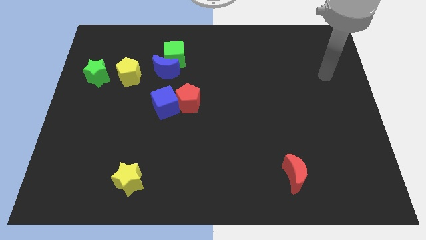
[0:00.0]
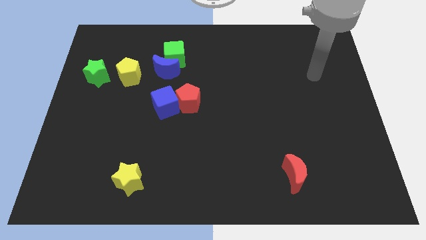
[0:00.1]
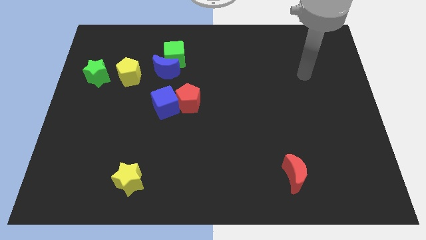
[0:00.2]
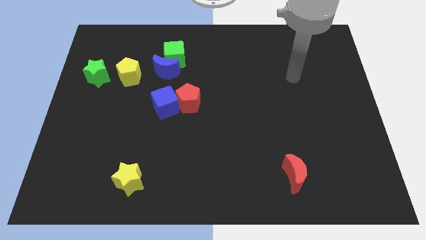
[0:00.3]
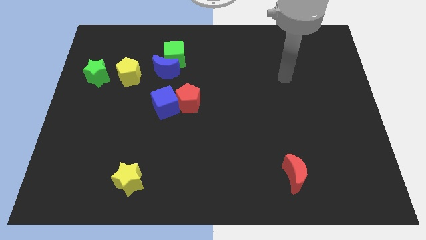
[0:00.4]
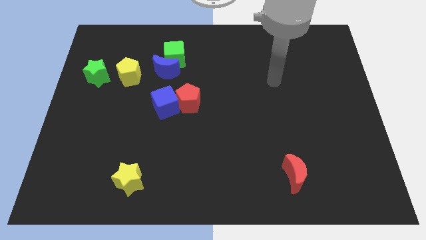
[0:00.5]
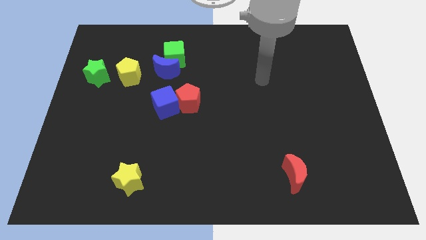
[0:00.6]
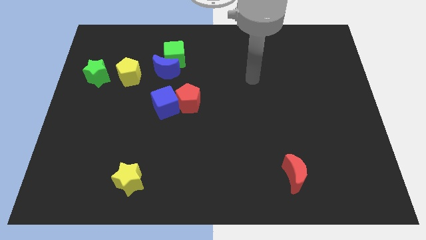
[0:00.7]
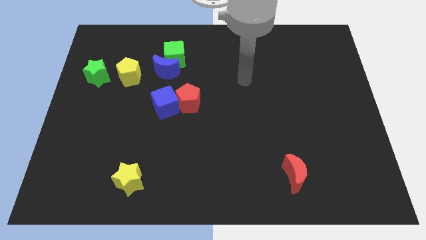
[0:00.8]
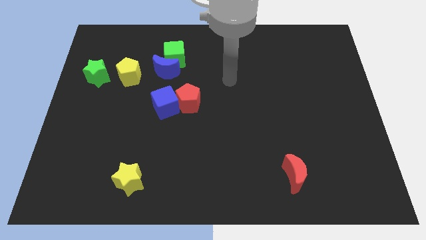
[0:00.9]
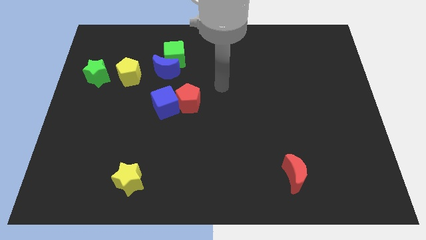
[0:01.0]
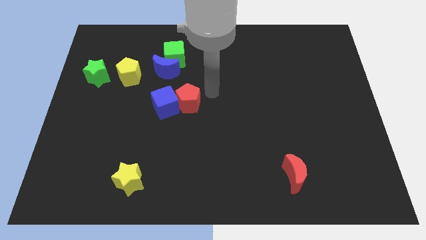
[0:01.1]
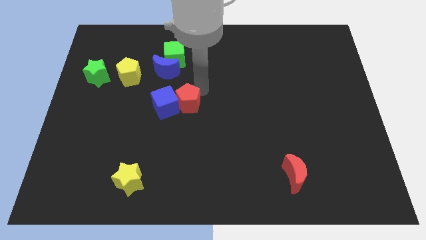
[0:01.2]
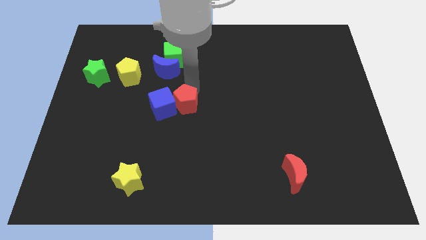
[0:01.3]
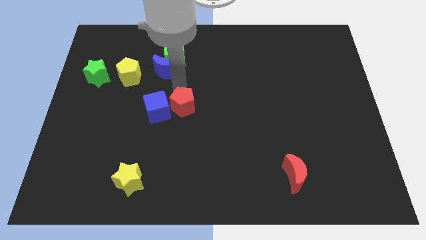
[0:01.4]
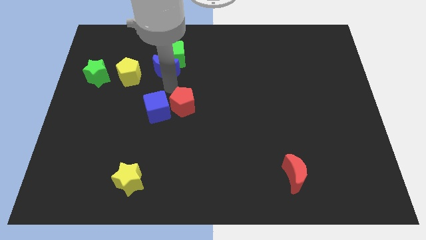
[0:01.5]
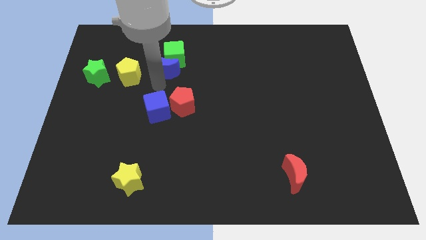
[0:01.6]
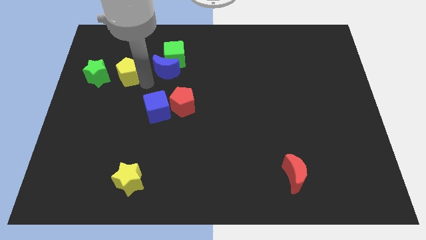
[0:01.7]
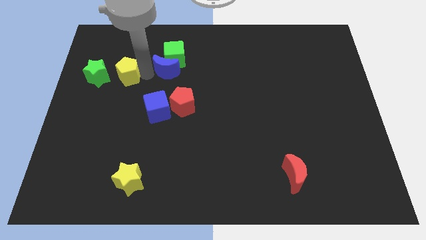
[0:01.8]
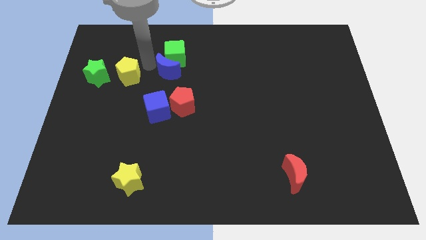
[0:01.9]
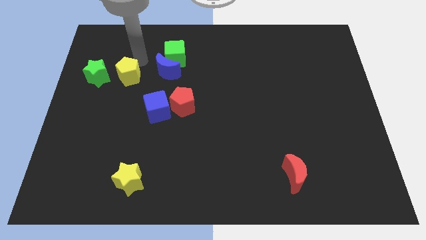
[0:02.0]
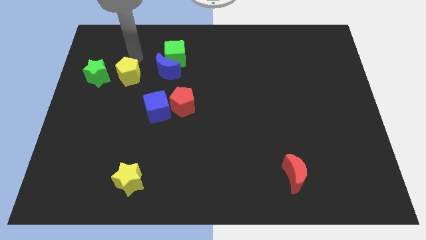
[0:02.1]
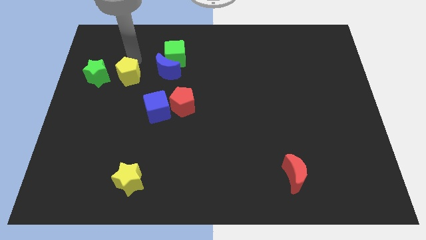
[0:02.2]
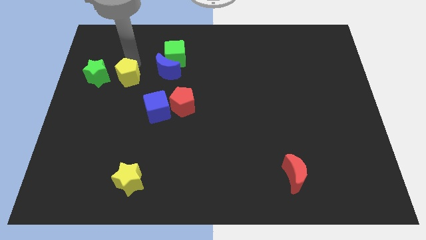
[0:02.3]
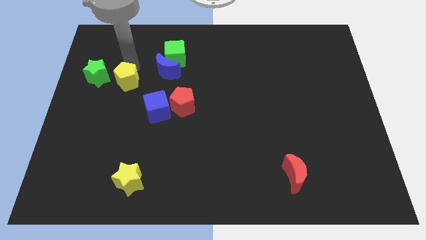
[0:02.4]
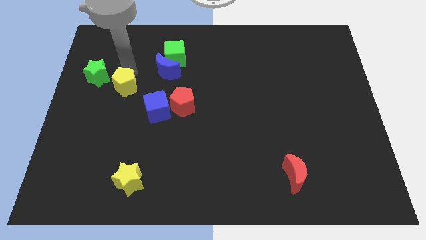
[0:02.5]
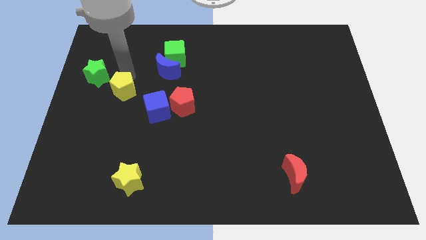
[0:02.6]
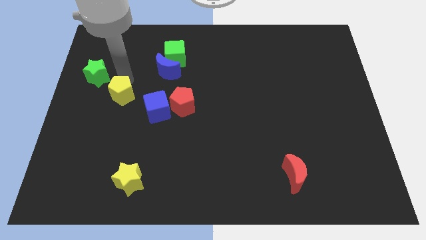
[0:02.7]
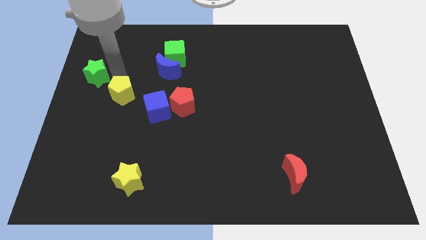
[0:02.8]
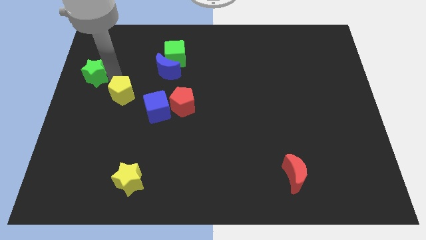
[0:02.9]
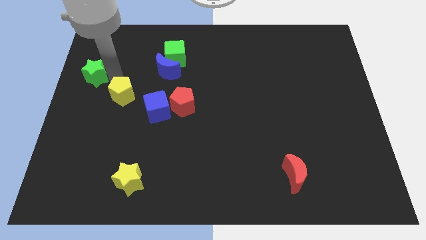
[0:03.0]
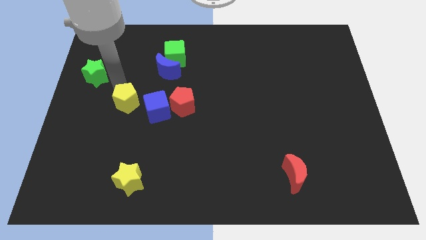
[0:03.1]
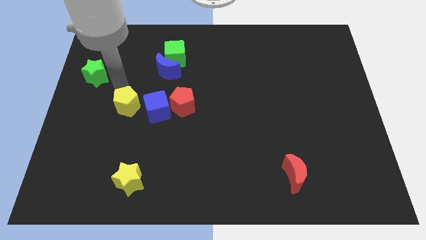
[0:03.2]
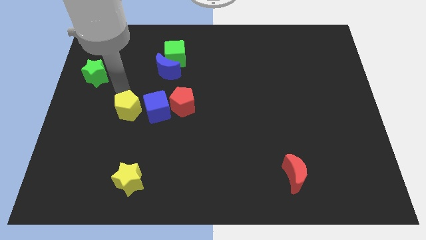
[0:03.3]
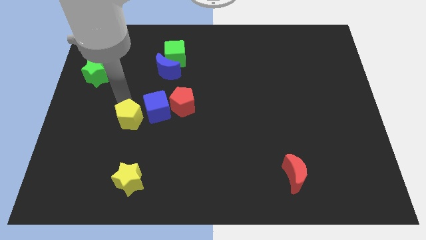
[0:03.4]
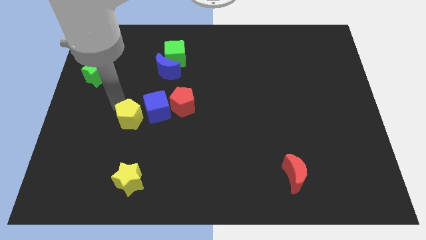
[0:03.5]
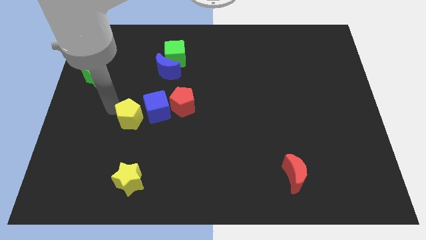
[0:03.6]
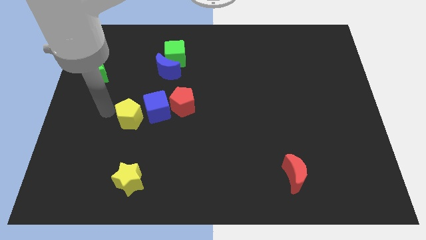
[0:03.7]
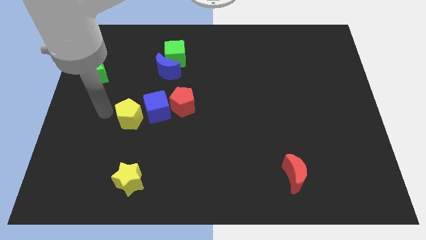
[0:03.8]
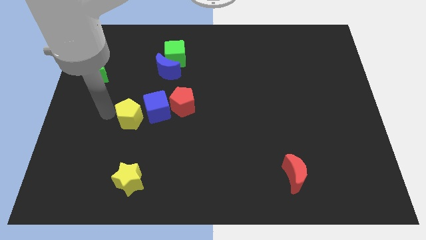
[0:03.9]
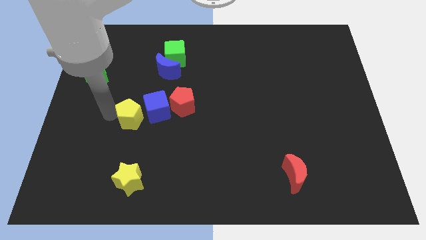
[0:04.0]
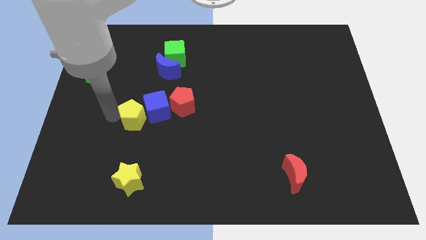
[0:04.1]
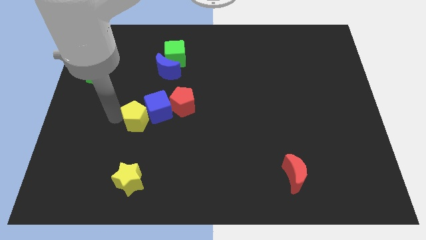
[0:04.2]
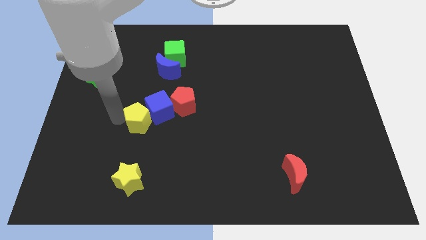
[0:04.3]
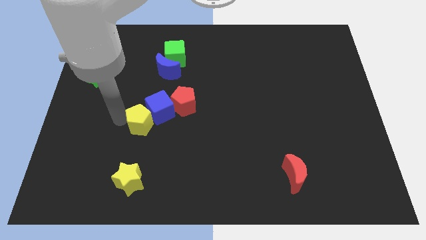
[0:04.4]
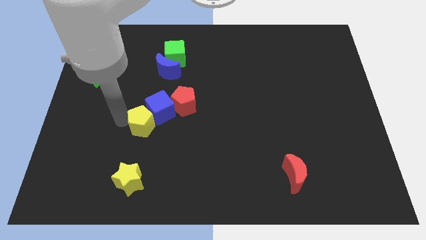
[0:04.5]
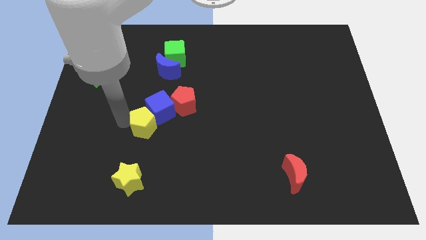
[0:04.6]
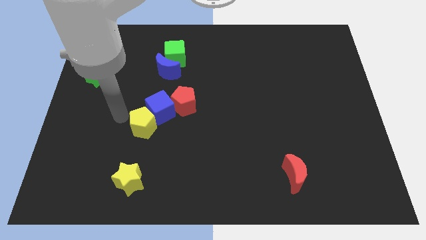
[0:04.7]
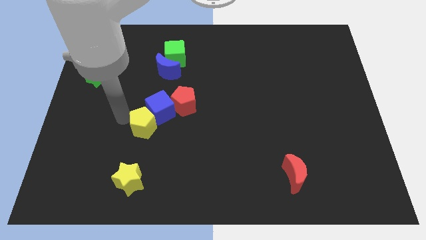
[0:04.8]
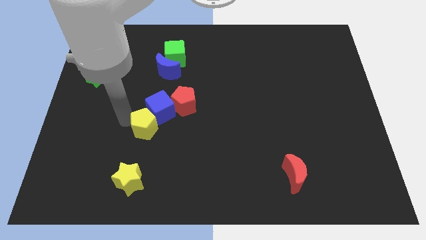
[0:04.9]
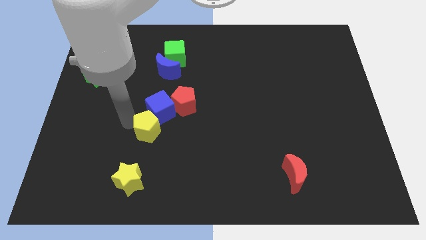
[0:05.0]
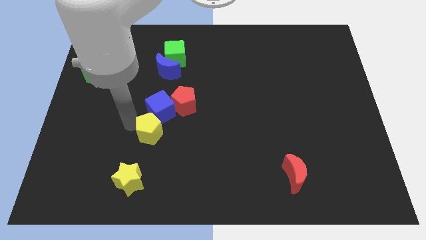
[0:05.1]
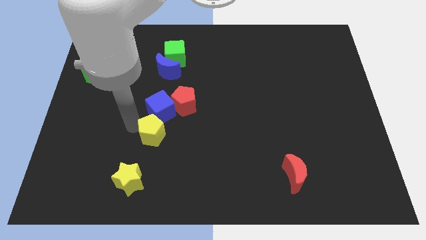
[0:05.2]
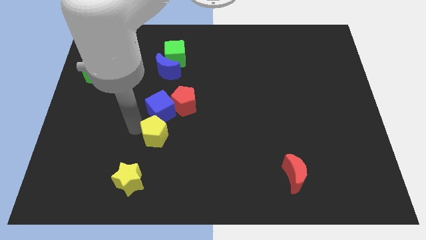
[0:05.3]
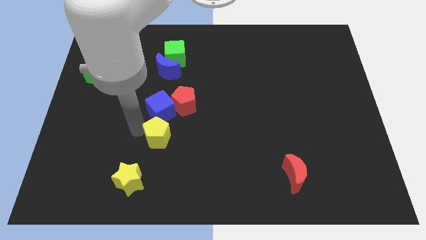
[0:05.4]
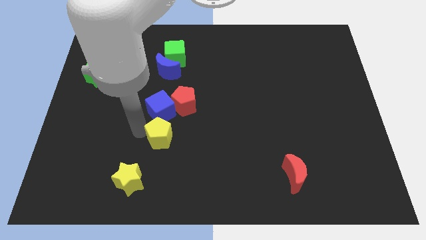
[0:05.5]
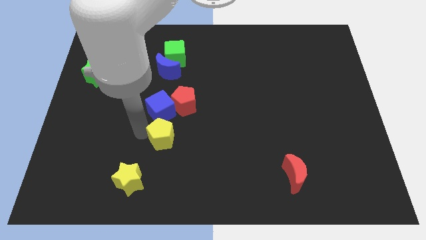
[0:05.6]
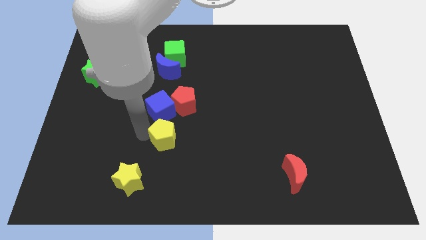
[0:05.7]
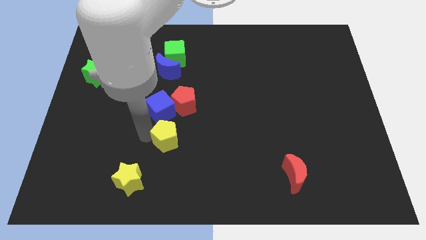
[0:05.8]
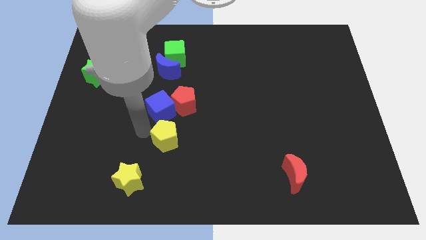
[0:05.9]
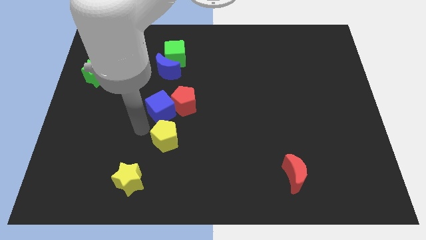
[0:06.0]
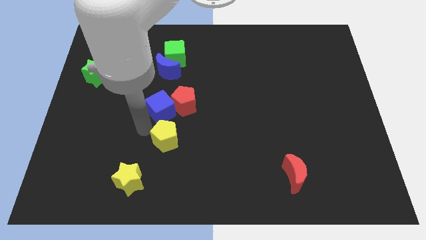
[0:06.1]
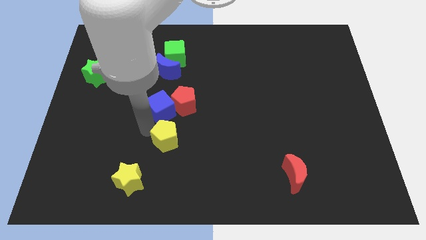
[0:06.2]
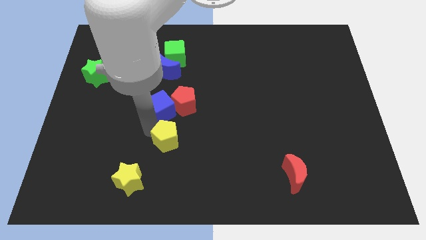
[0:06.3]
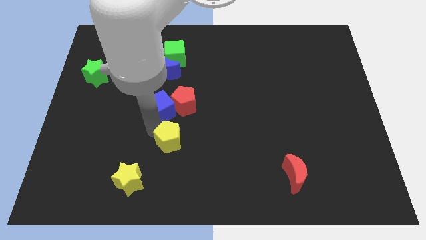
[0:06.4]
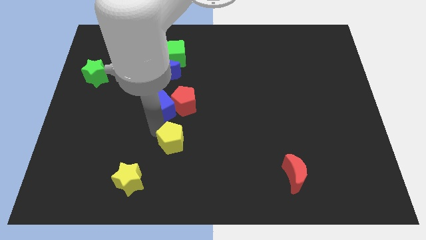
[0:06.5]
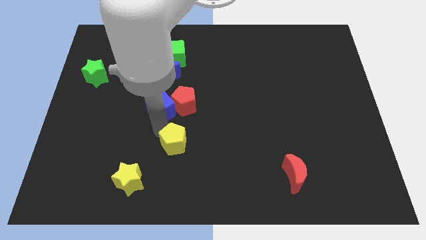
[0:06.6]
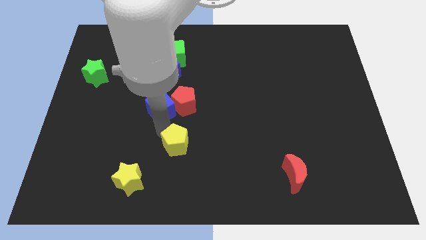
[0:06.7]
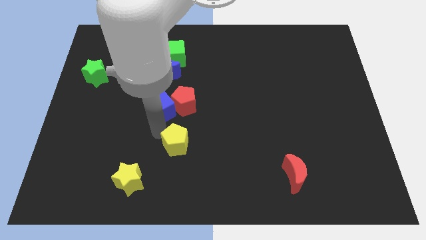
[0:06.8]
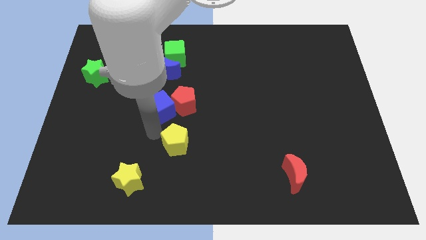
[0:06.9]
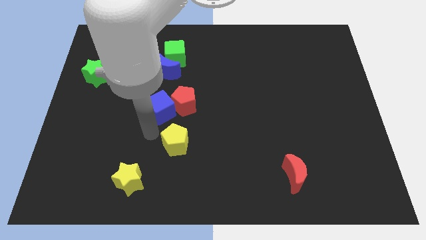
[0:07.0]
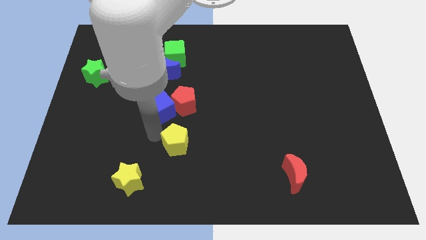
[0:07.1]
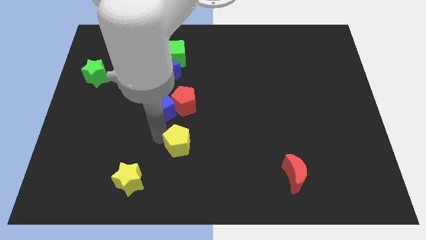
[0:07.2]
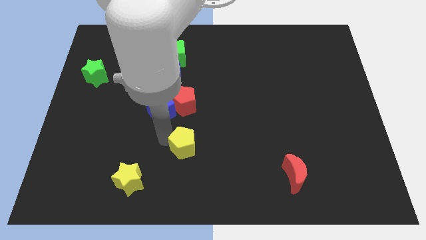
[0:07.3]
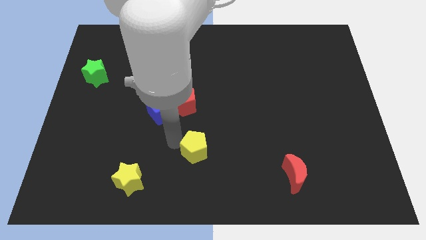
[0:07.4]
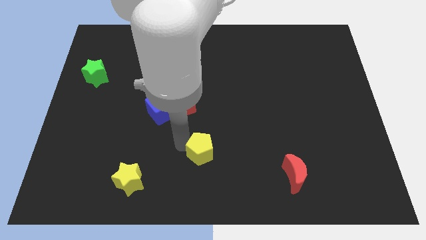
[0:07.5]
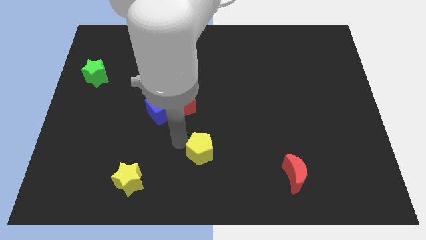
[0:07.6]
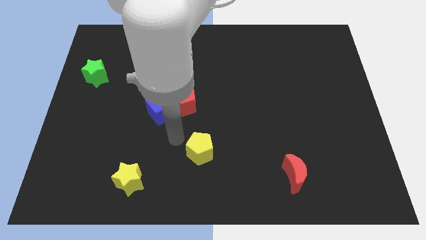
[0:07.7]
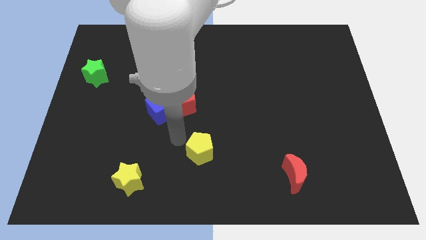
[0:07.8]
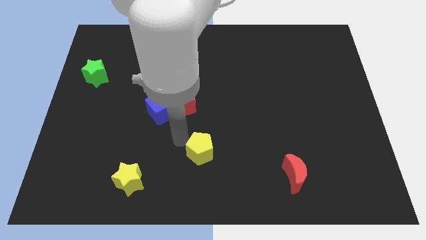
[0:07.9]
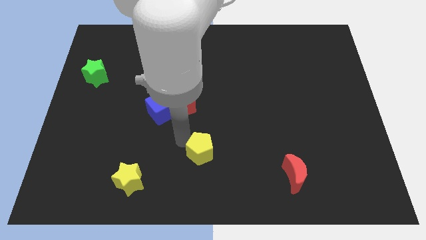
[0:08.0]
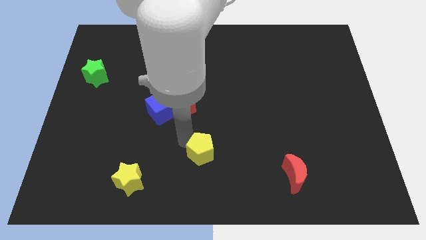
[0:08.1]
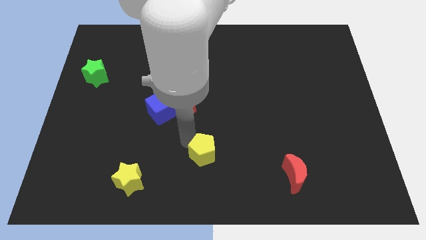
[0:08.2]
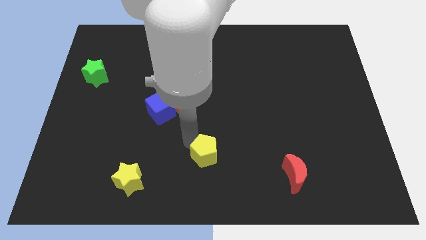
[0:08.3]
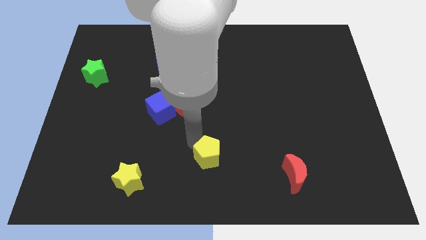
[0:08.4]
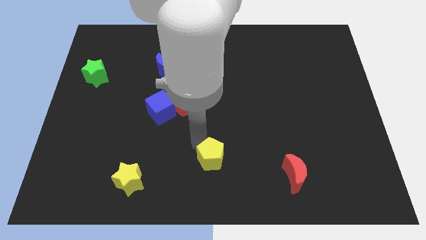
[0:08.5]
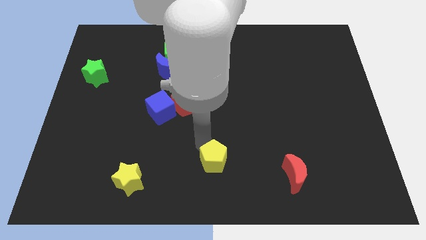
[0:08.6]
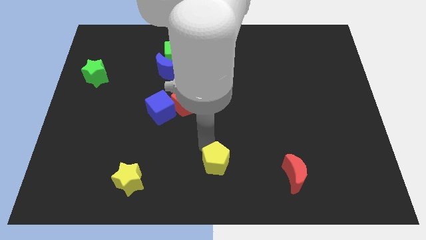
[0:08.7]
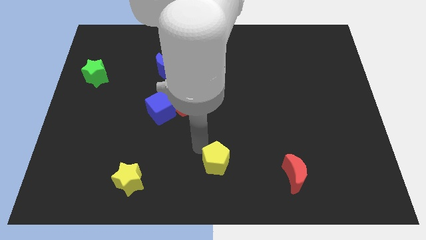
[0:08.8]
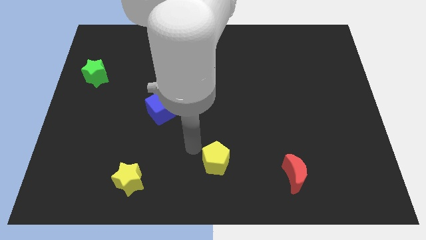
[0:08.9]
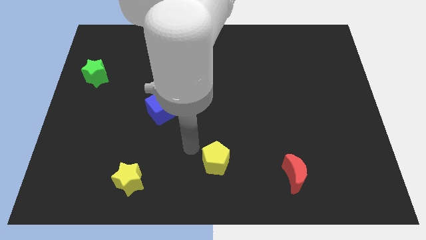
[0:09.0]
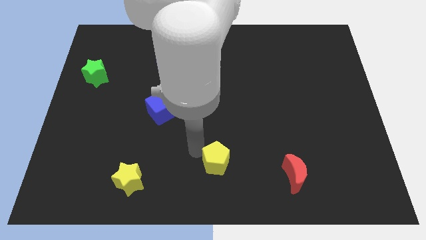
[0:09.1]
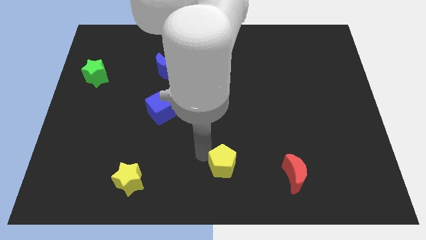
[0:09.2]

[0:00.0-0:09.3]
move the yellow pentagon to the left of the red moon
